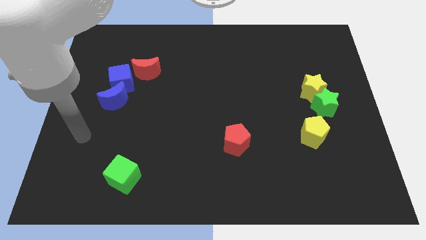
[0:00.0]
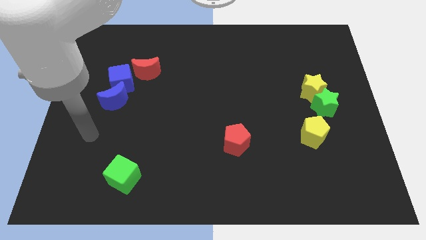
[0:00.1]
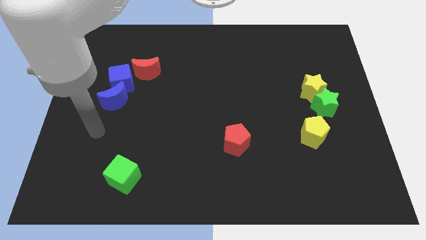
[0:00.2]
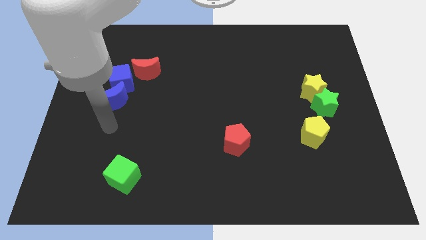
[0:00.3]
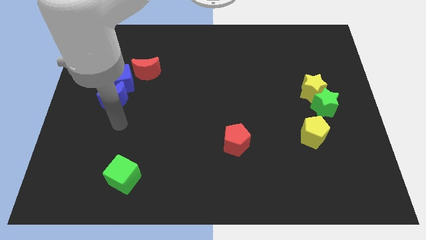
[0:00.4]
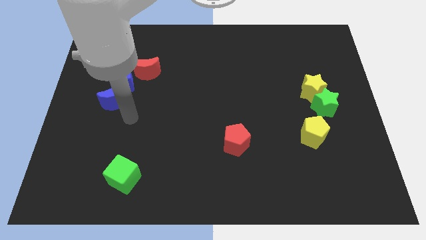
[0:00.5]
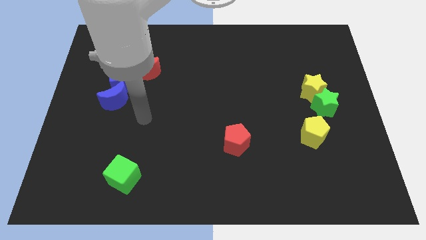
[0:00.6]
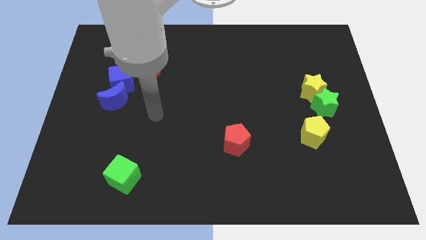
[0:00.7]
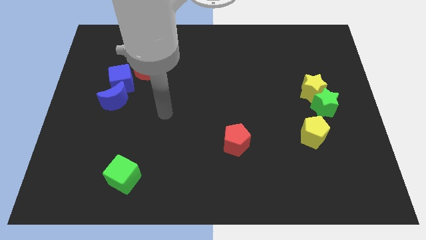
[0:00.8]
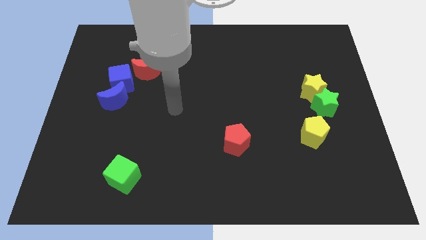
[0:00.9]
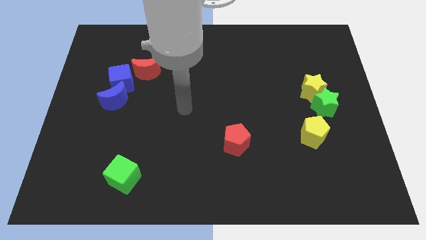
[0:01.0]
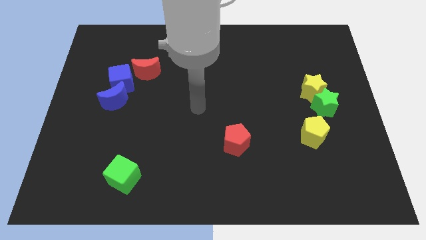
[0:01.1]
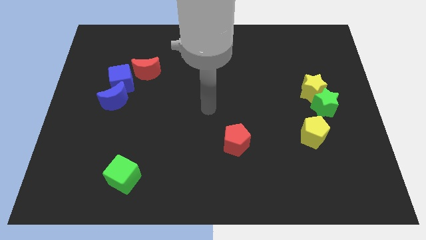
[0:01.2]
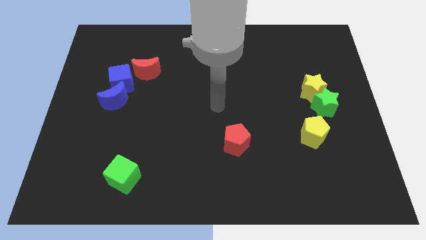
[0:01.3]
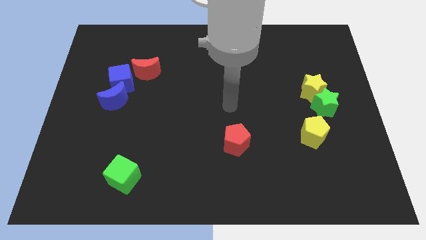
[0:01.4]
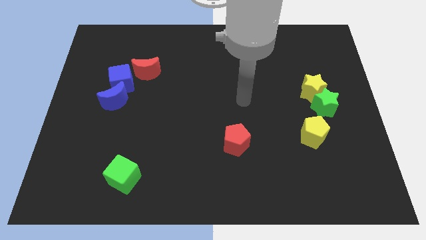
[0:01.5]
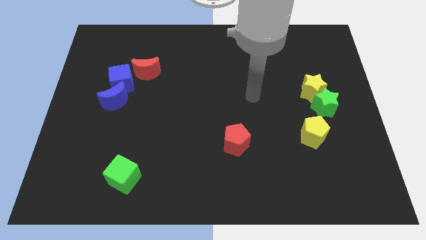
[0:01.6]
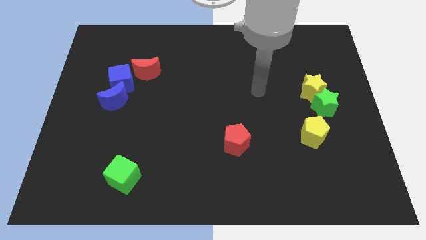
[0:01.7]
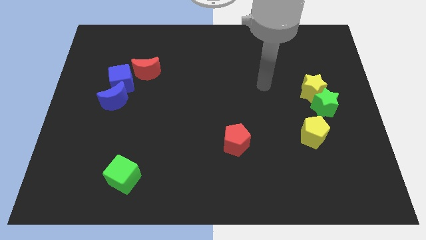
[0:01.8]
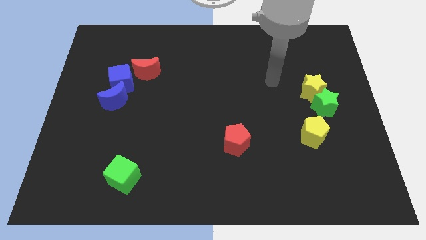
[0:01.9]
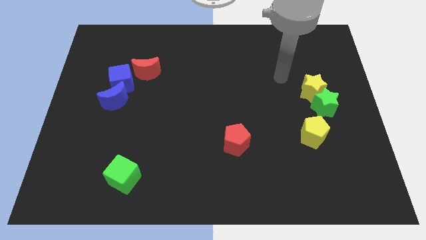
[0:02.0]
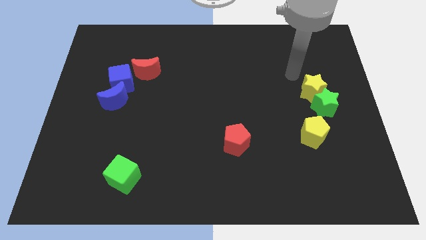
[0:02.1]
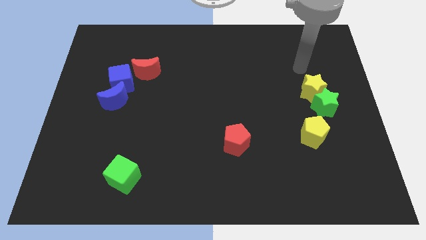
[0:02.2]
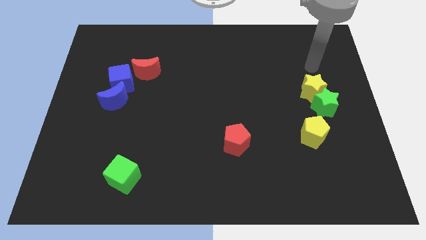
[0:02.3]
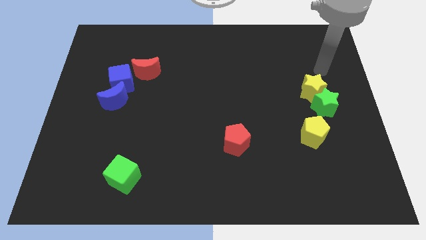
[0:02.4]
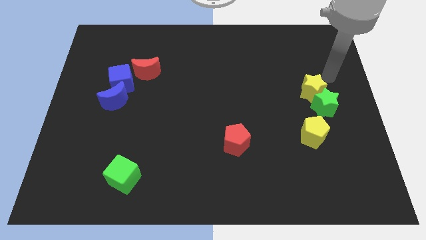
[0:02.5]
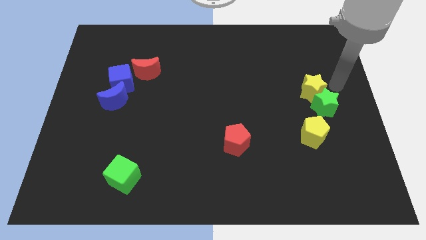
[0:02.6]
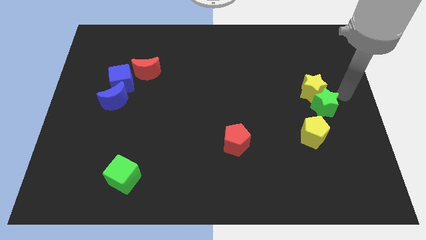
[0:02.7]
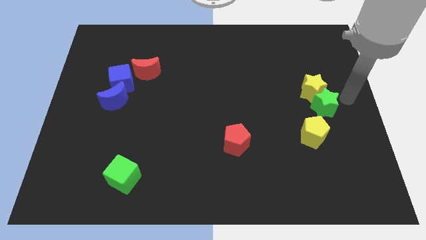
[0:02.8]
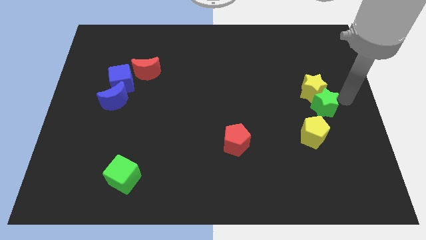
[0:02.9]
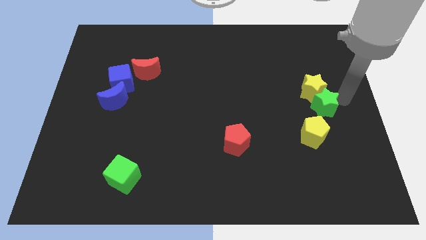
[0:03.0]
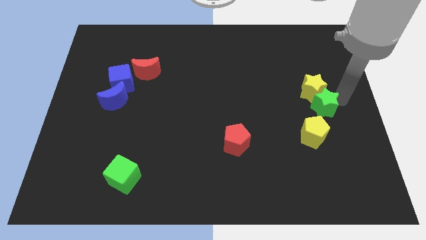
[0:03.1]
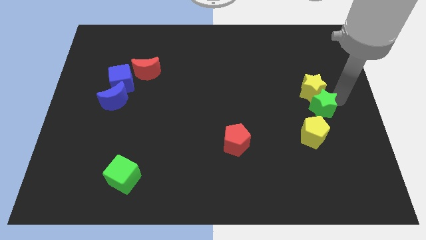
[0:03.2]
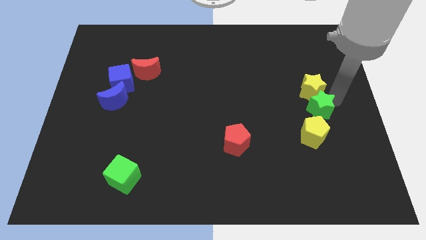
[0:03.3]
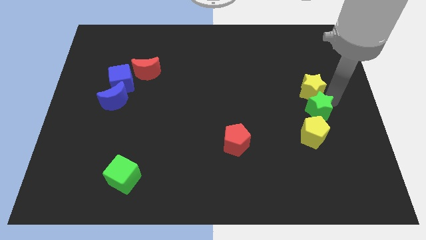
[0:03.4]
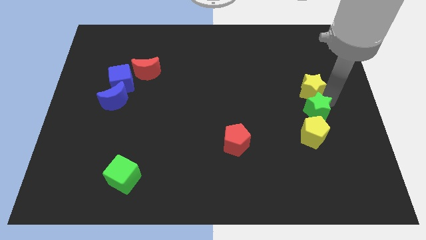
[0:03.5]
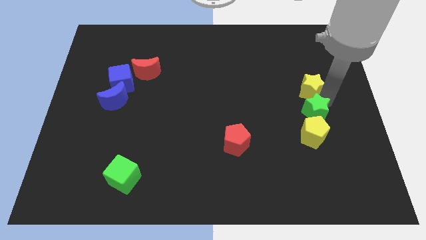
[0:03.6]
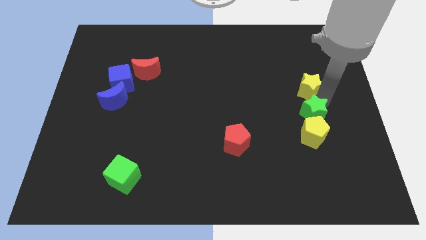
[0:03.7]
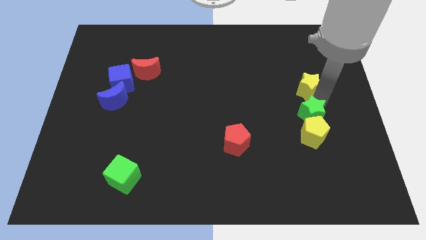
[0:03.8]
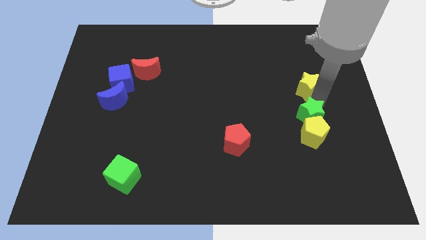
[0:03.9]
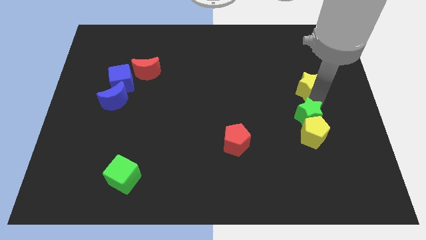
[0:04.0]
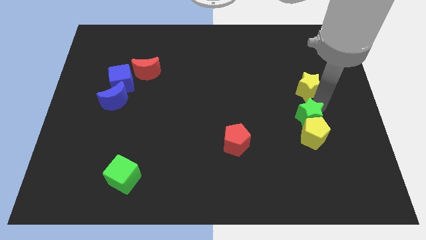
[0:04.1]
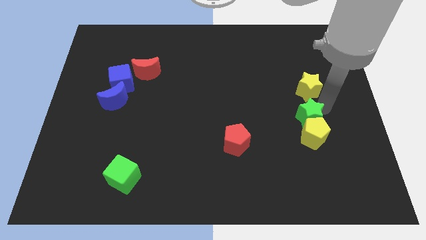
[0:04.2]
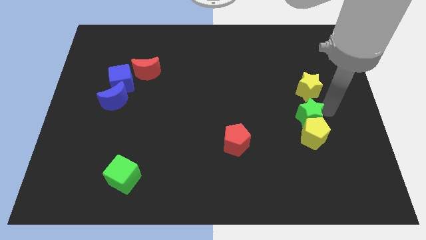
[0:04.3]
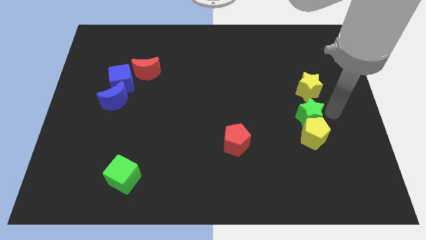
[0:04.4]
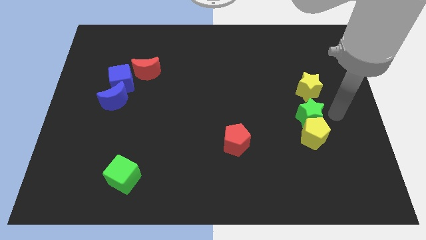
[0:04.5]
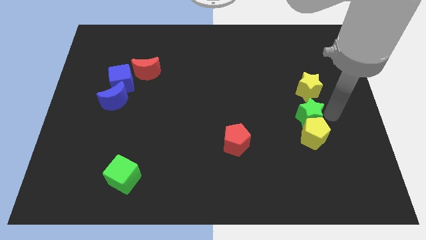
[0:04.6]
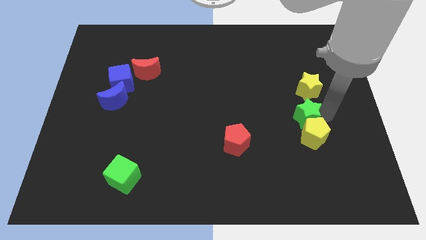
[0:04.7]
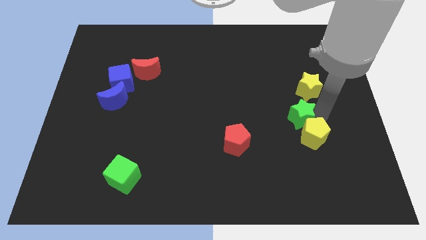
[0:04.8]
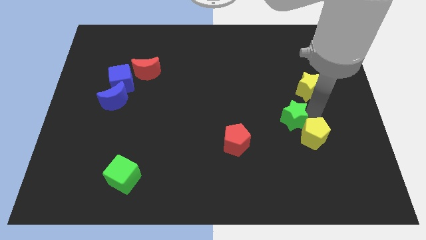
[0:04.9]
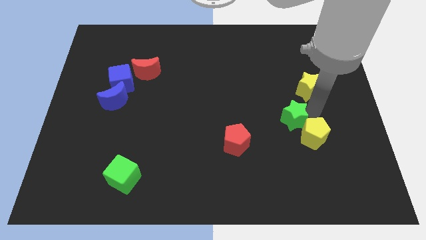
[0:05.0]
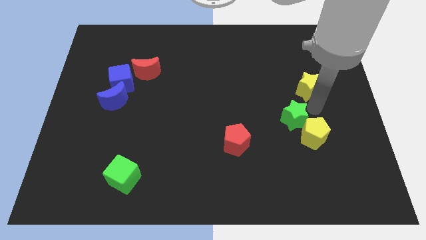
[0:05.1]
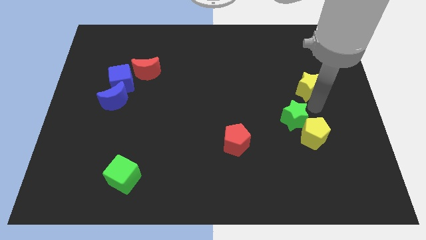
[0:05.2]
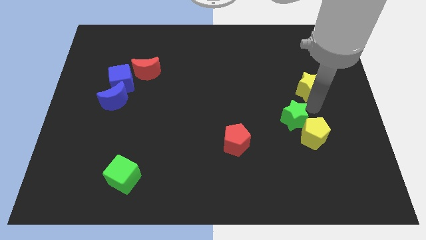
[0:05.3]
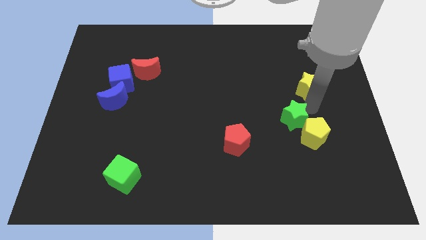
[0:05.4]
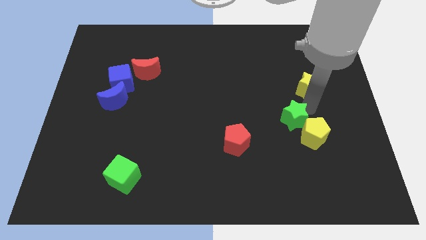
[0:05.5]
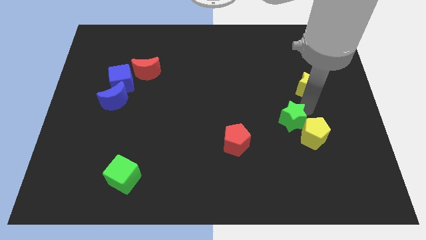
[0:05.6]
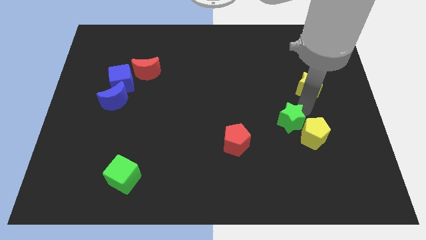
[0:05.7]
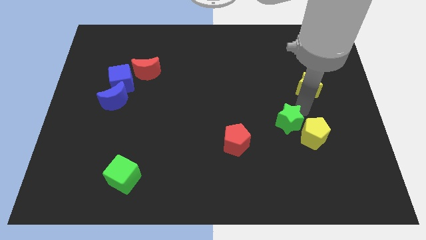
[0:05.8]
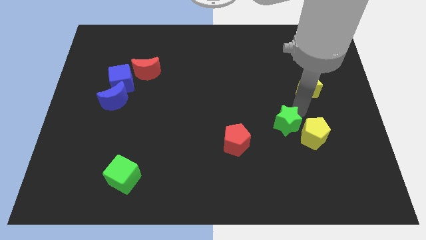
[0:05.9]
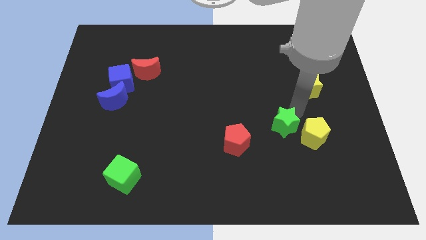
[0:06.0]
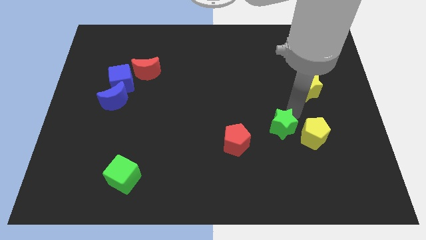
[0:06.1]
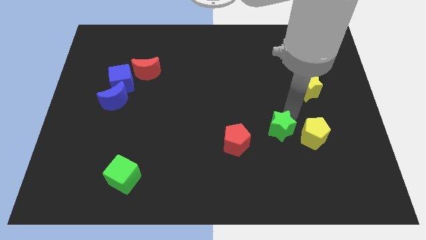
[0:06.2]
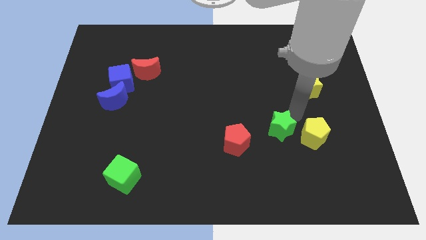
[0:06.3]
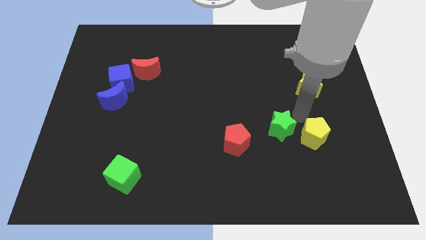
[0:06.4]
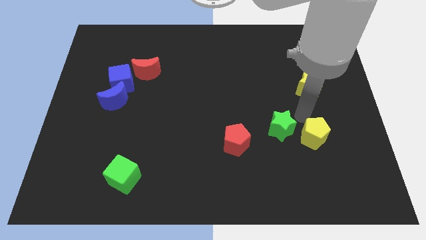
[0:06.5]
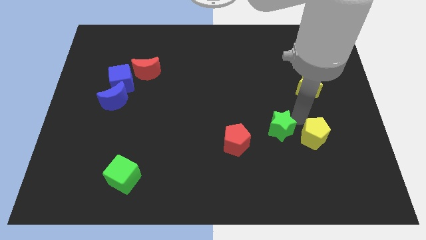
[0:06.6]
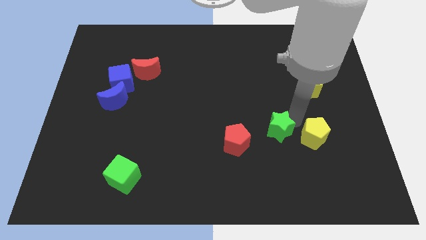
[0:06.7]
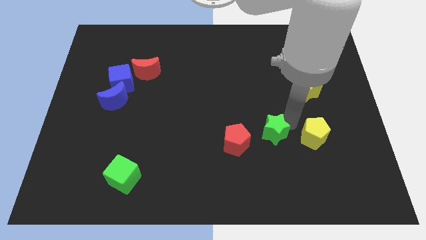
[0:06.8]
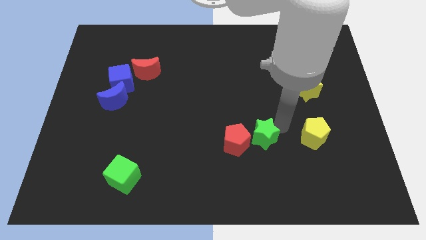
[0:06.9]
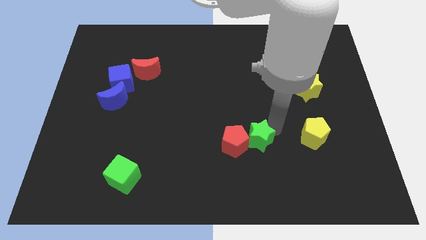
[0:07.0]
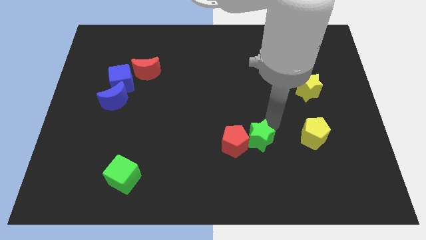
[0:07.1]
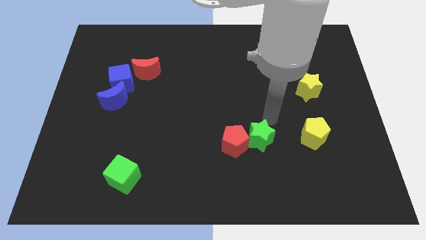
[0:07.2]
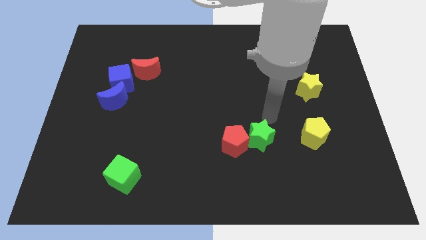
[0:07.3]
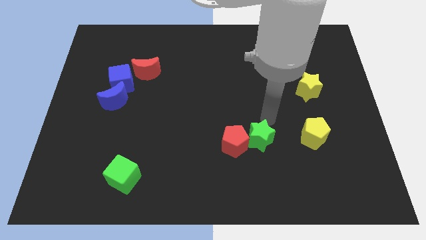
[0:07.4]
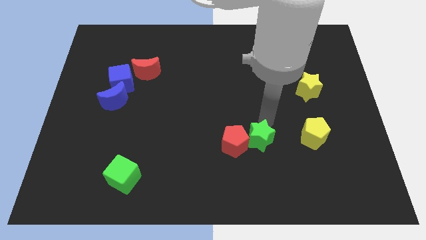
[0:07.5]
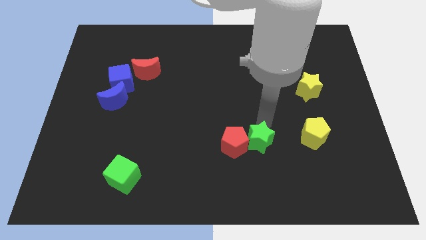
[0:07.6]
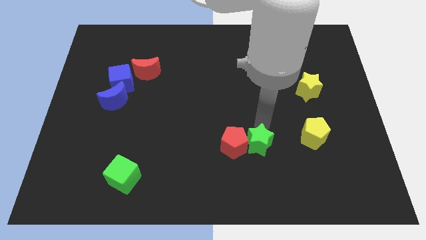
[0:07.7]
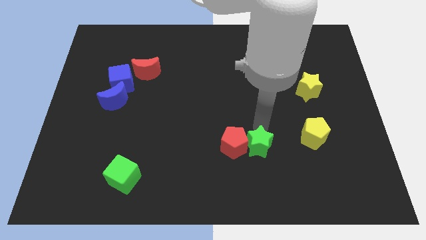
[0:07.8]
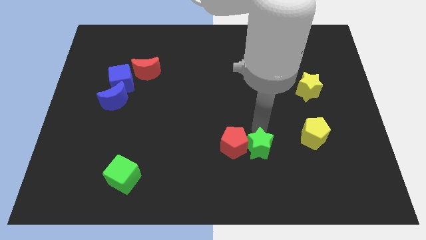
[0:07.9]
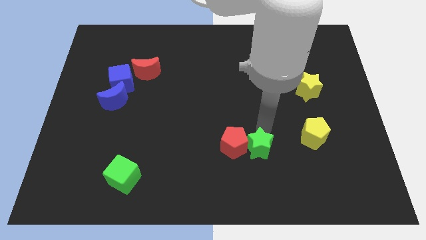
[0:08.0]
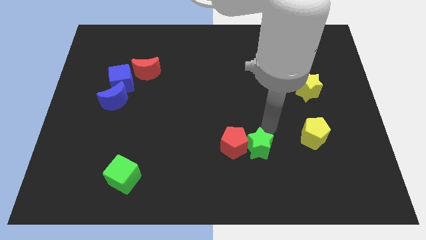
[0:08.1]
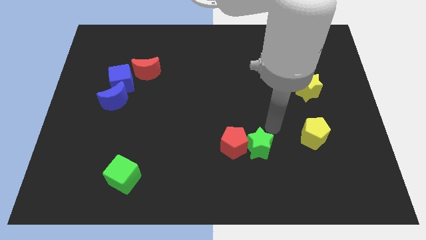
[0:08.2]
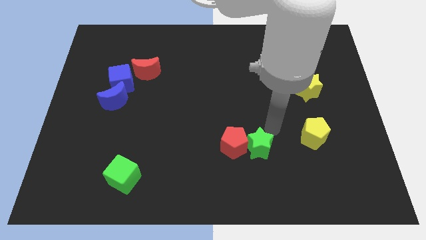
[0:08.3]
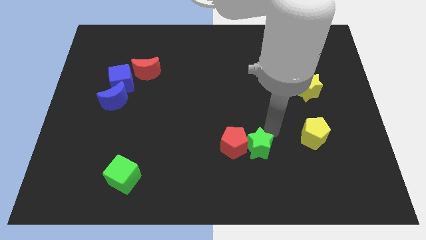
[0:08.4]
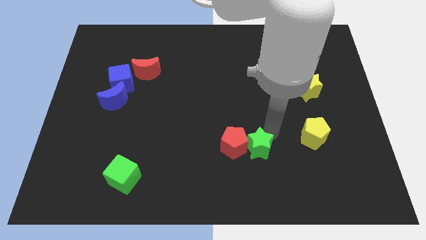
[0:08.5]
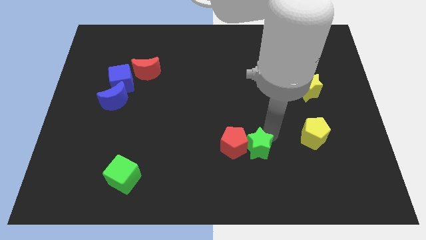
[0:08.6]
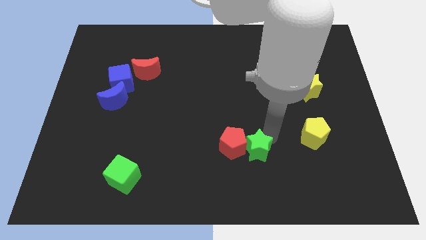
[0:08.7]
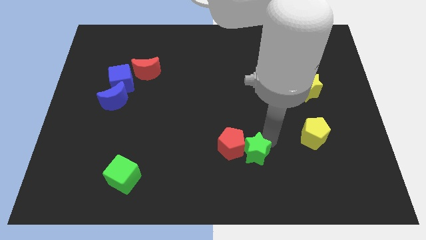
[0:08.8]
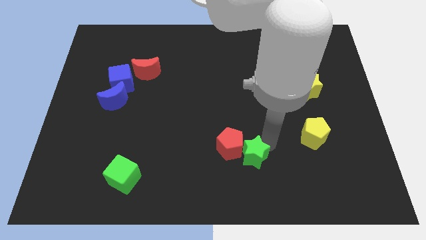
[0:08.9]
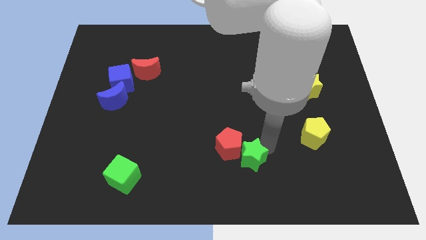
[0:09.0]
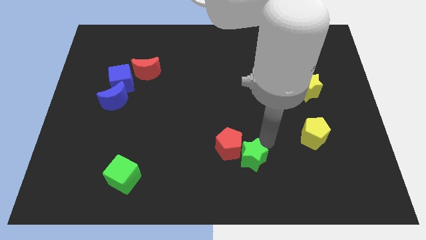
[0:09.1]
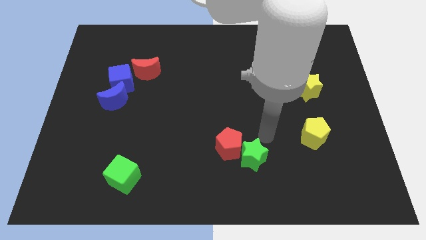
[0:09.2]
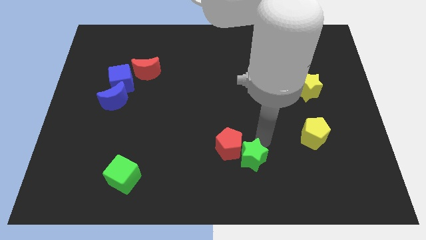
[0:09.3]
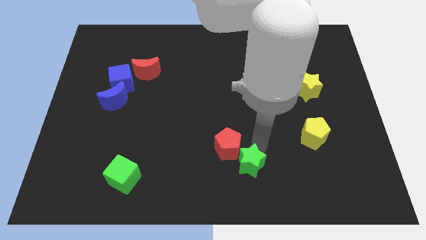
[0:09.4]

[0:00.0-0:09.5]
slide the green star to the bottom
